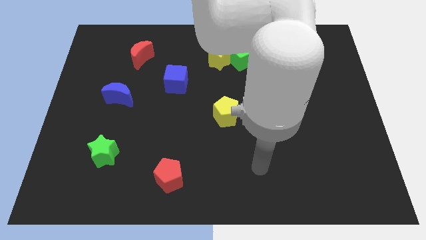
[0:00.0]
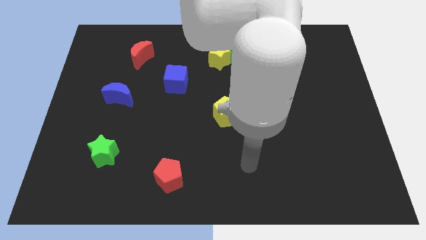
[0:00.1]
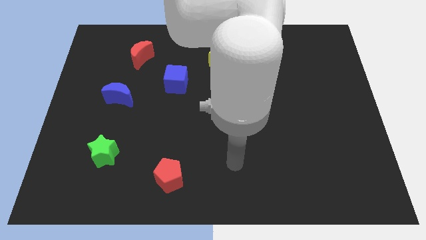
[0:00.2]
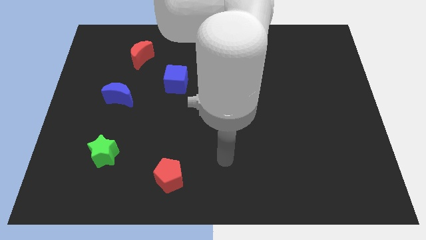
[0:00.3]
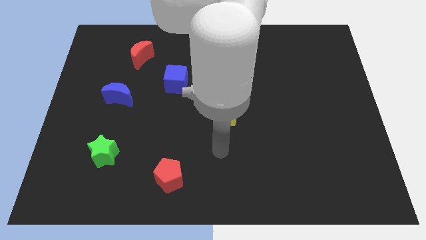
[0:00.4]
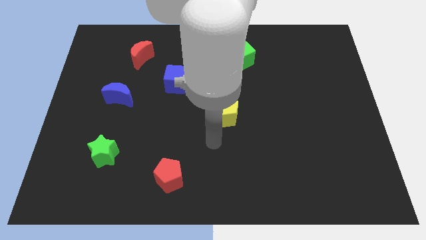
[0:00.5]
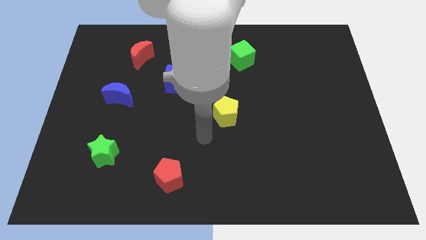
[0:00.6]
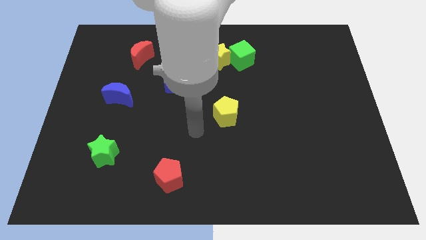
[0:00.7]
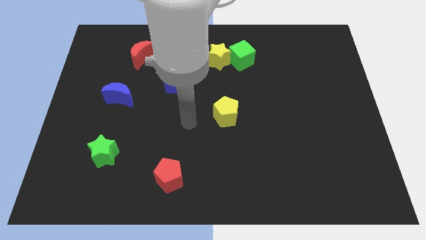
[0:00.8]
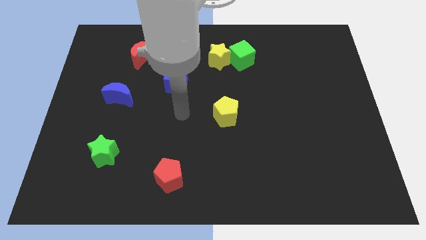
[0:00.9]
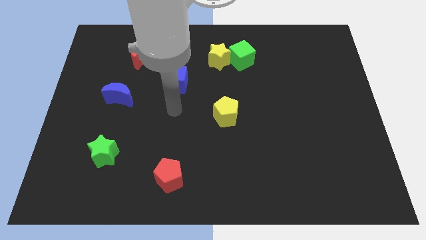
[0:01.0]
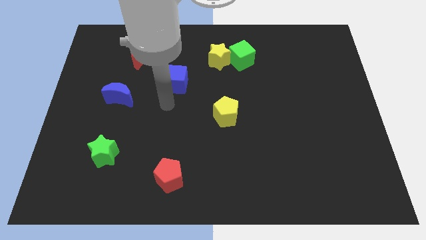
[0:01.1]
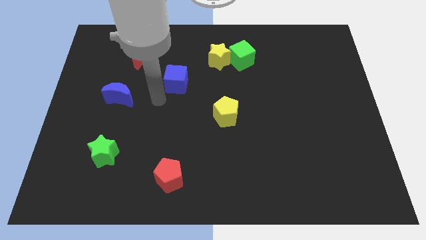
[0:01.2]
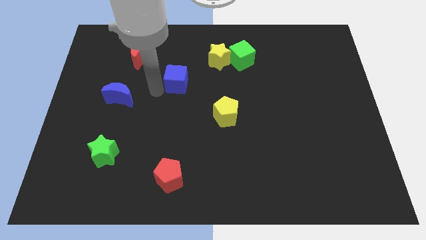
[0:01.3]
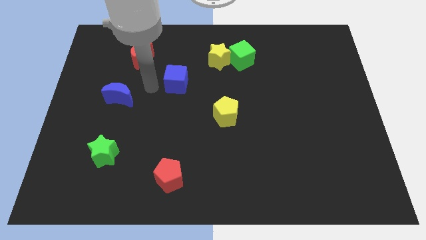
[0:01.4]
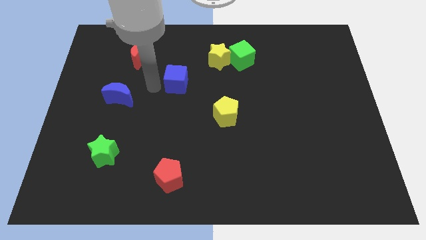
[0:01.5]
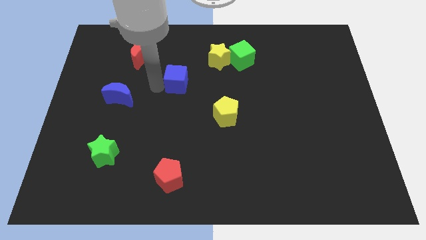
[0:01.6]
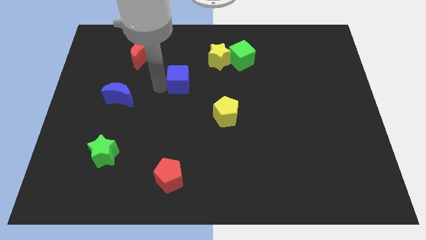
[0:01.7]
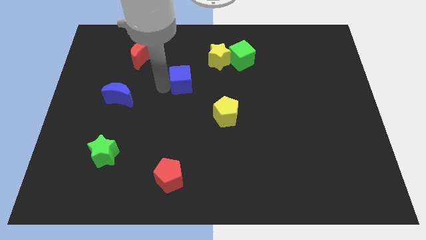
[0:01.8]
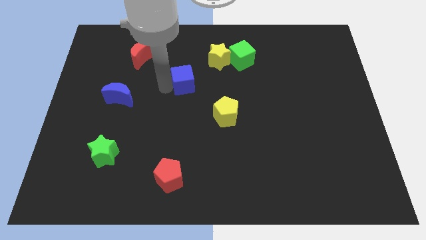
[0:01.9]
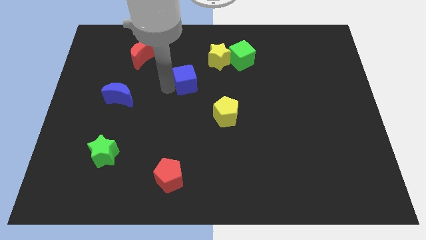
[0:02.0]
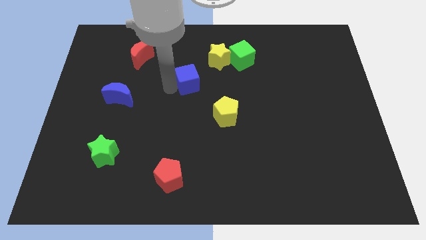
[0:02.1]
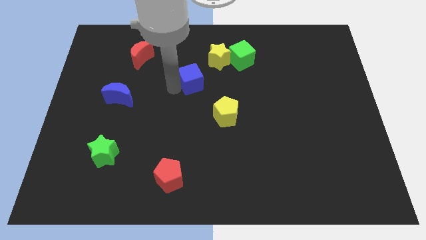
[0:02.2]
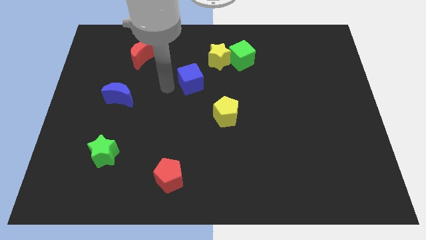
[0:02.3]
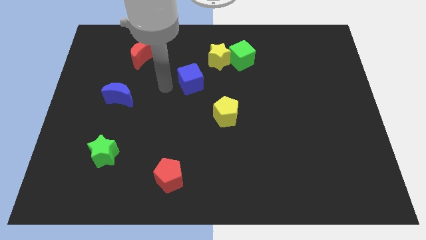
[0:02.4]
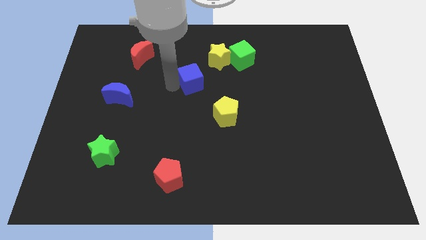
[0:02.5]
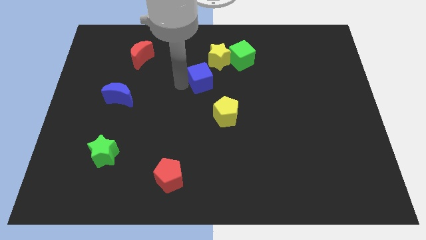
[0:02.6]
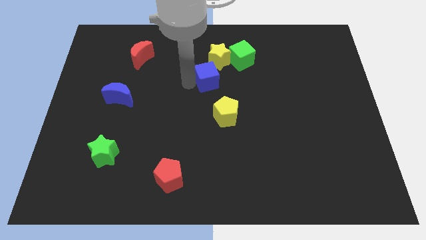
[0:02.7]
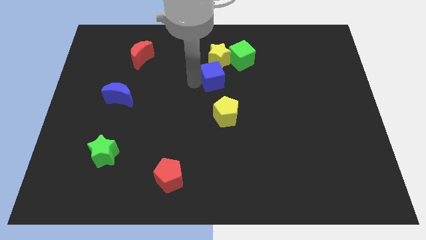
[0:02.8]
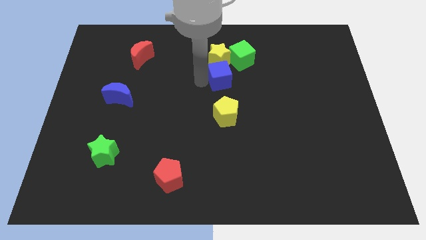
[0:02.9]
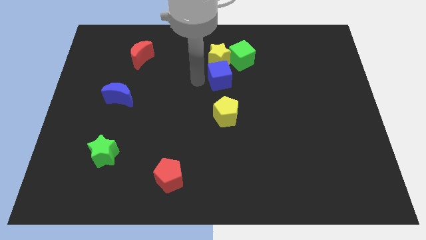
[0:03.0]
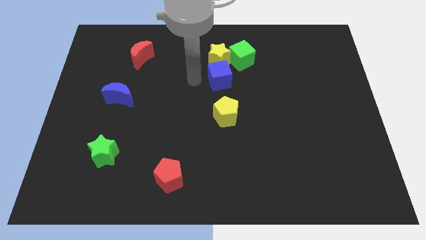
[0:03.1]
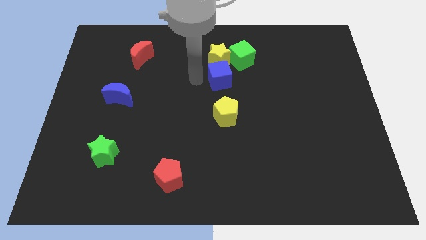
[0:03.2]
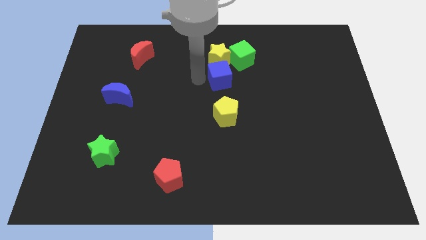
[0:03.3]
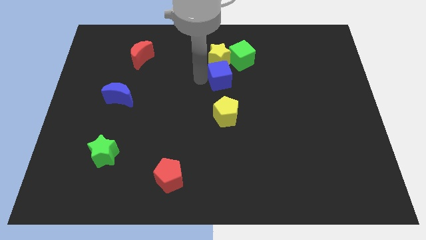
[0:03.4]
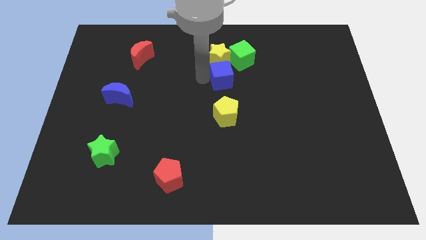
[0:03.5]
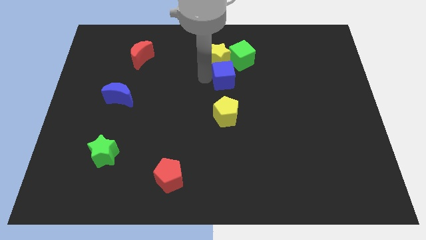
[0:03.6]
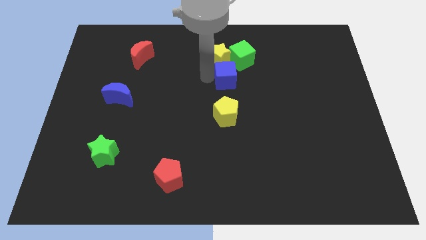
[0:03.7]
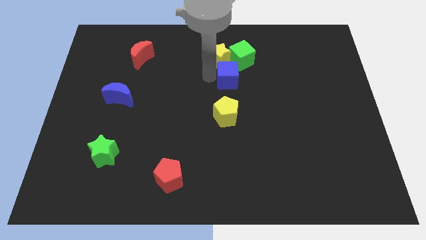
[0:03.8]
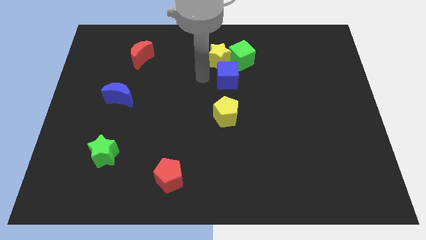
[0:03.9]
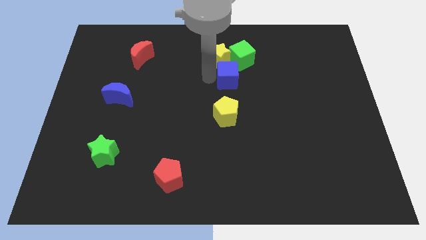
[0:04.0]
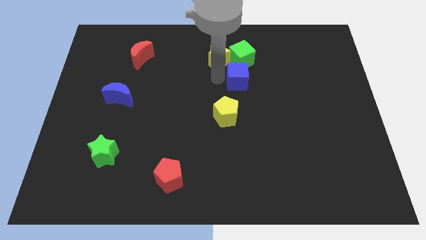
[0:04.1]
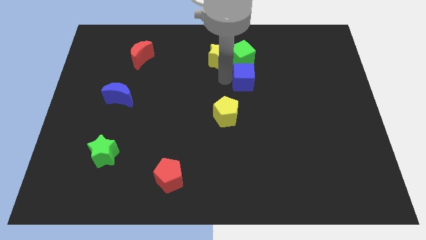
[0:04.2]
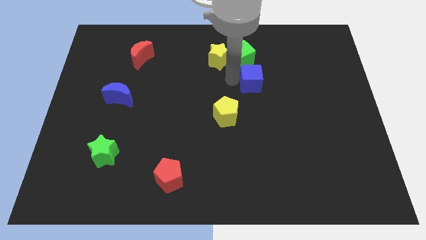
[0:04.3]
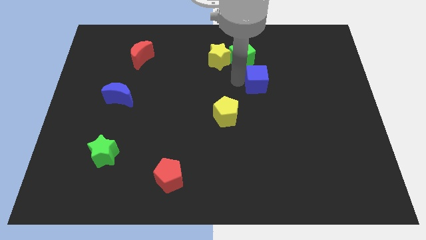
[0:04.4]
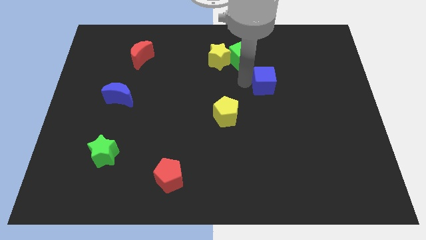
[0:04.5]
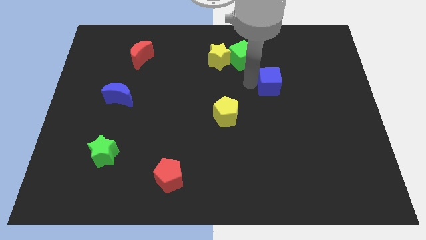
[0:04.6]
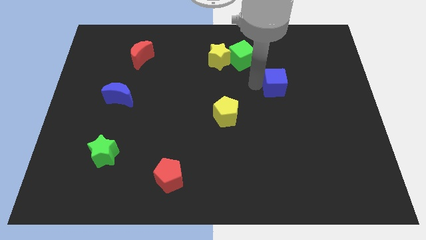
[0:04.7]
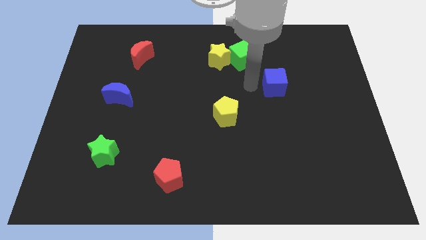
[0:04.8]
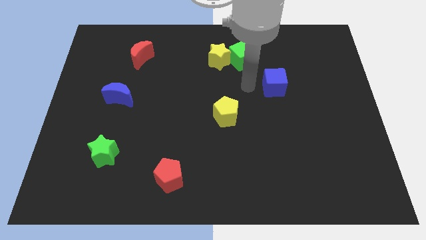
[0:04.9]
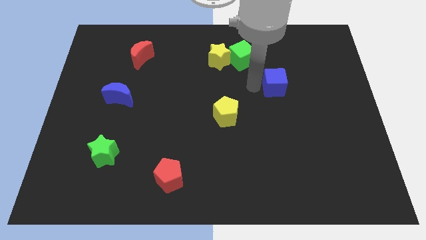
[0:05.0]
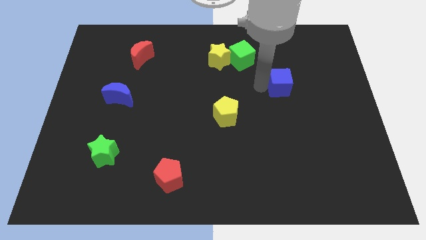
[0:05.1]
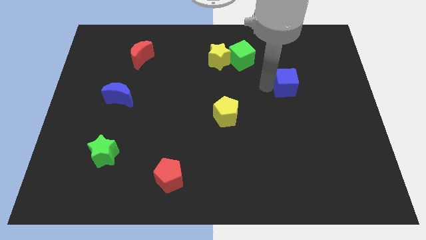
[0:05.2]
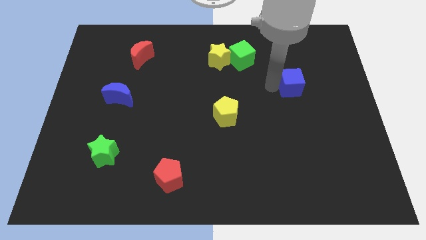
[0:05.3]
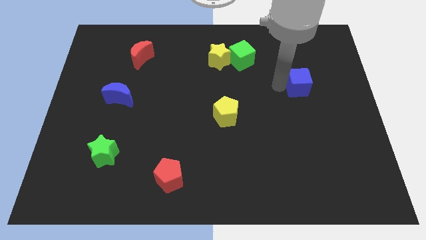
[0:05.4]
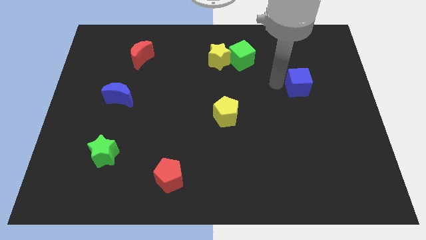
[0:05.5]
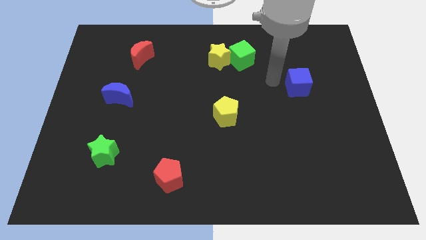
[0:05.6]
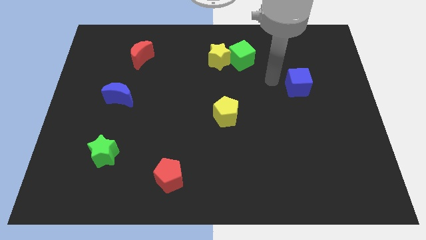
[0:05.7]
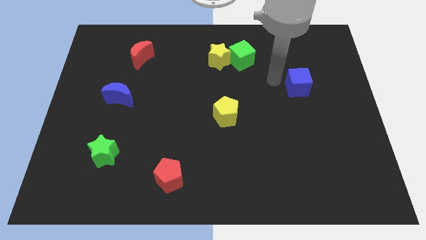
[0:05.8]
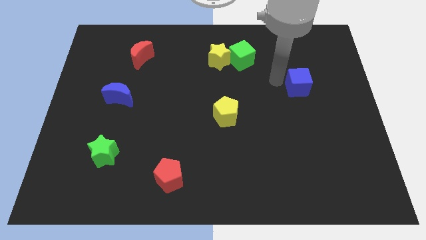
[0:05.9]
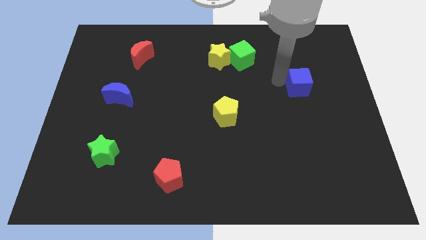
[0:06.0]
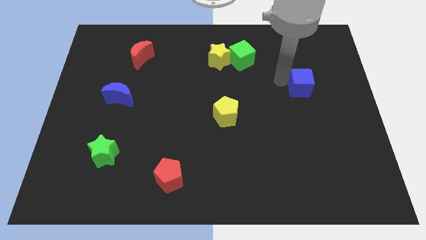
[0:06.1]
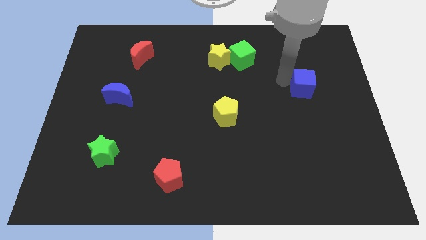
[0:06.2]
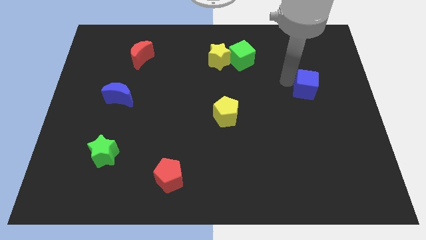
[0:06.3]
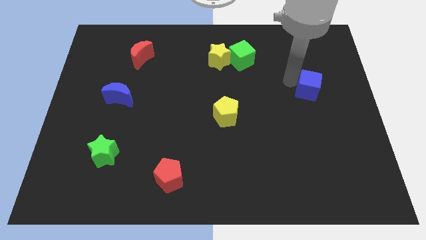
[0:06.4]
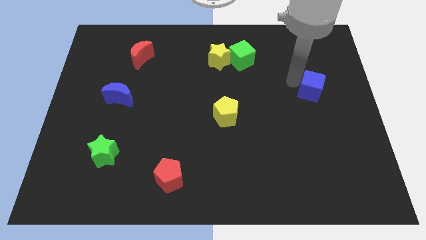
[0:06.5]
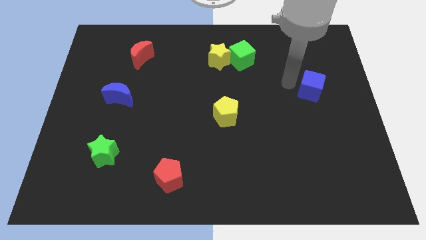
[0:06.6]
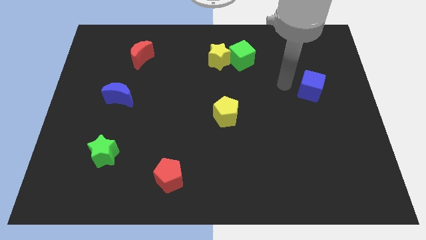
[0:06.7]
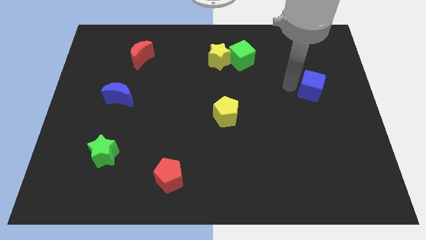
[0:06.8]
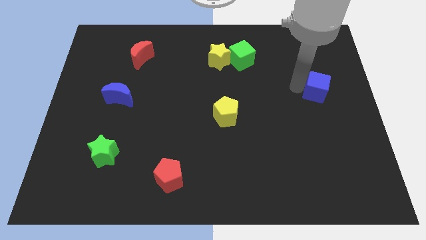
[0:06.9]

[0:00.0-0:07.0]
push the blue cube to the center right
